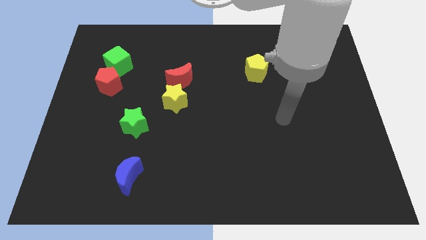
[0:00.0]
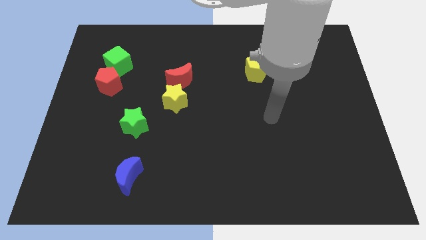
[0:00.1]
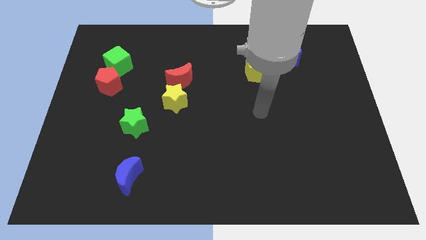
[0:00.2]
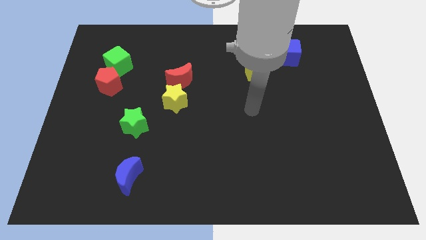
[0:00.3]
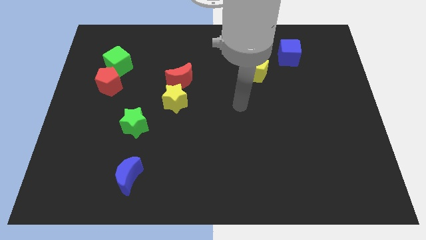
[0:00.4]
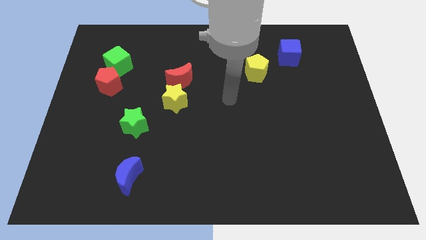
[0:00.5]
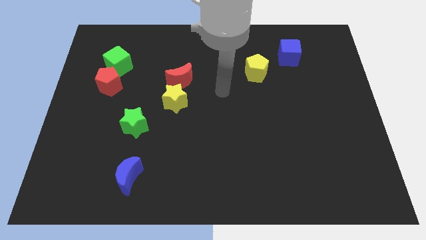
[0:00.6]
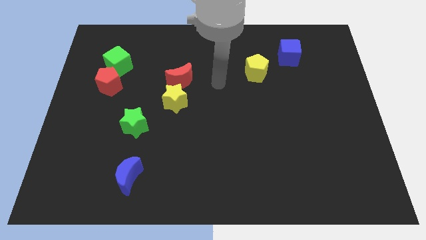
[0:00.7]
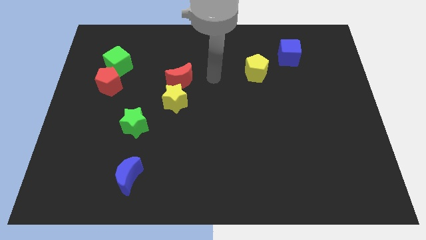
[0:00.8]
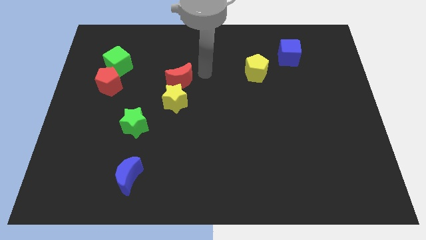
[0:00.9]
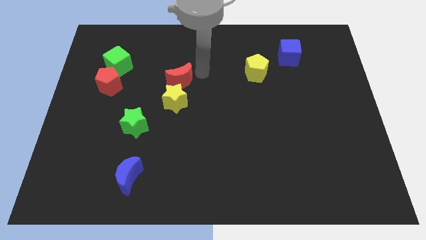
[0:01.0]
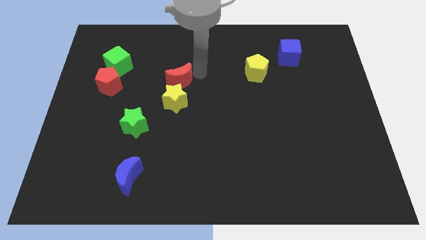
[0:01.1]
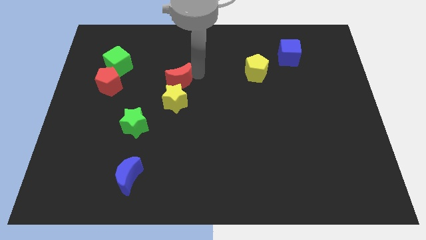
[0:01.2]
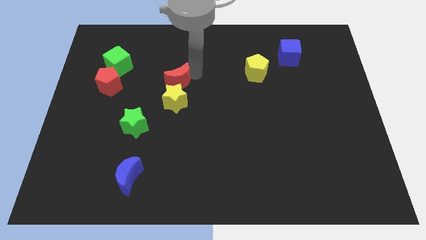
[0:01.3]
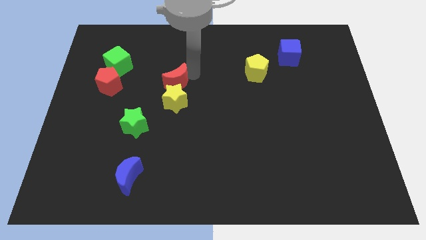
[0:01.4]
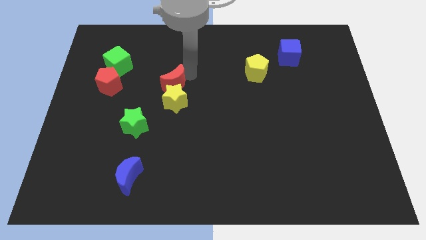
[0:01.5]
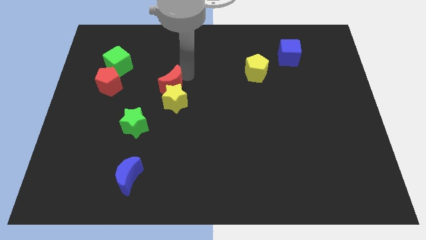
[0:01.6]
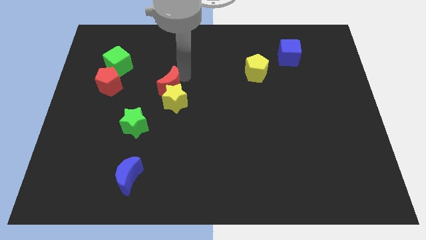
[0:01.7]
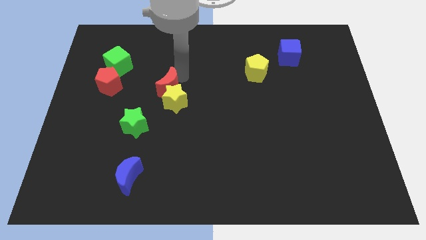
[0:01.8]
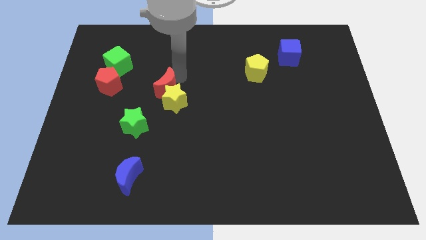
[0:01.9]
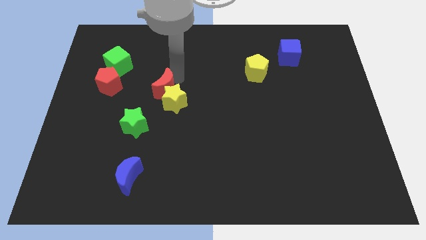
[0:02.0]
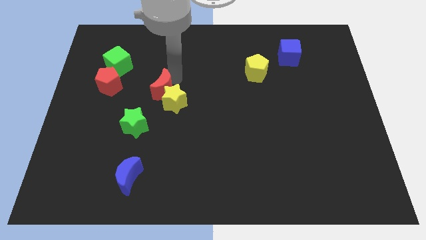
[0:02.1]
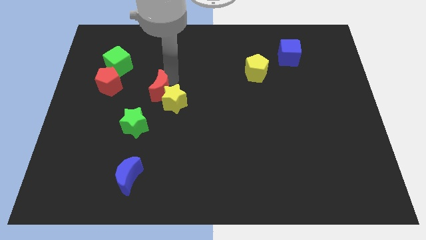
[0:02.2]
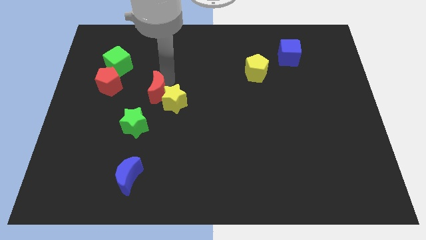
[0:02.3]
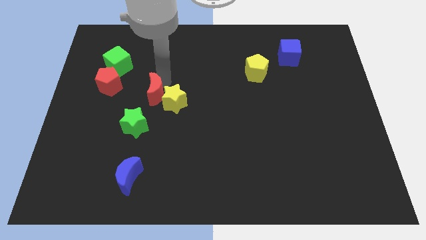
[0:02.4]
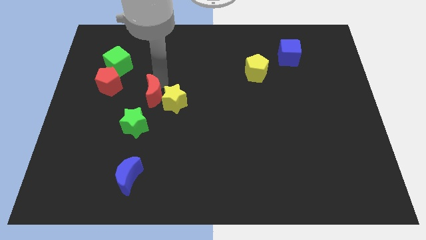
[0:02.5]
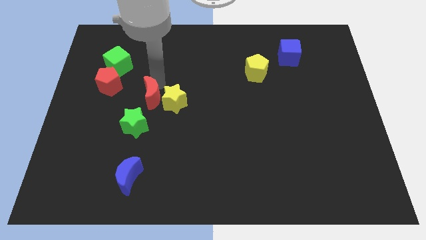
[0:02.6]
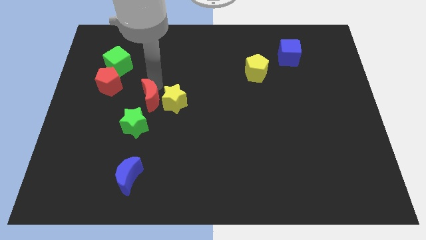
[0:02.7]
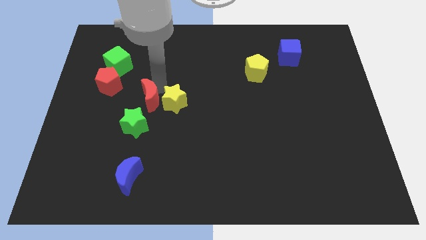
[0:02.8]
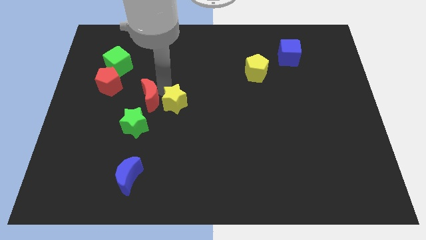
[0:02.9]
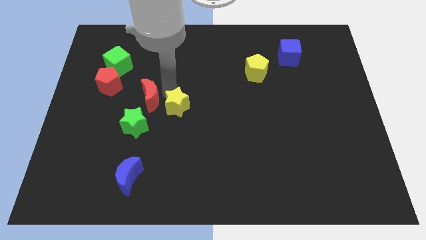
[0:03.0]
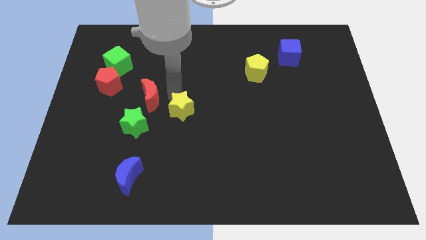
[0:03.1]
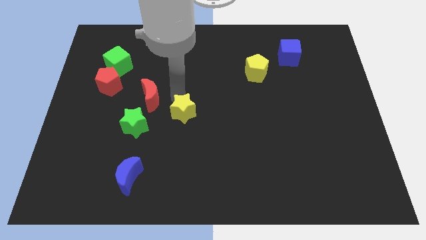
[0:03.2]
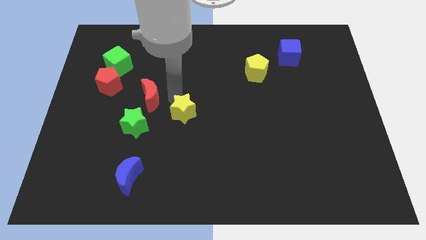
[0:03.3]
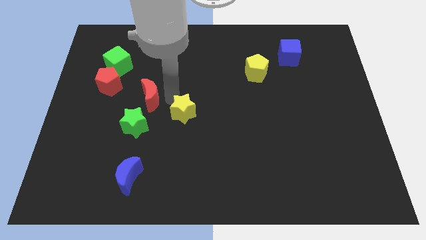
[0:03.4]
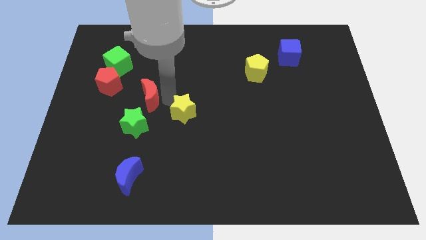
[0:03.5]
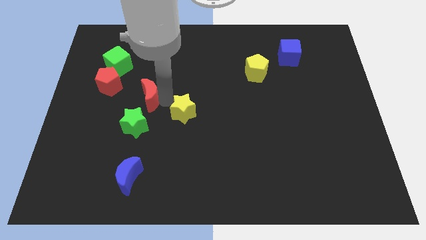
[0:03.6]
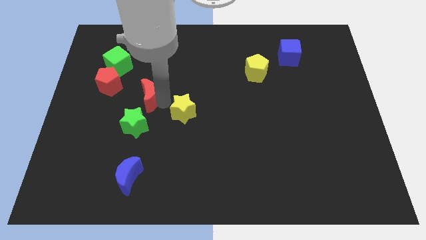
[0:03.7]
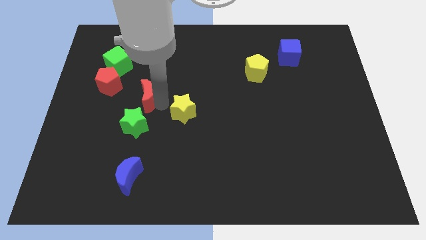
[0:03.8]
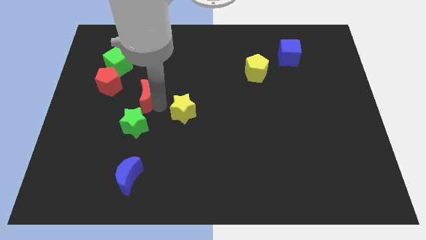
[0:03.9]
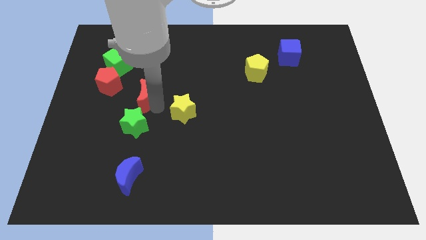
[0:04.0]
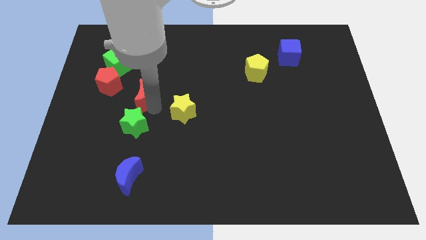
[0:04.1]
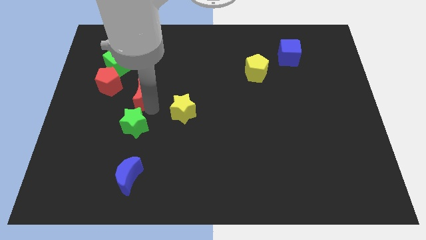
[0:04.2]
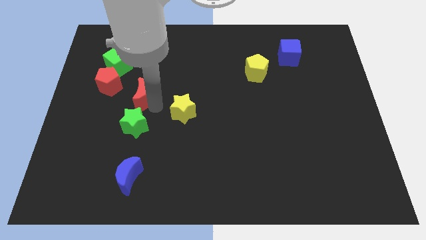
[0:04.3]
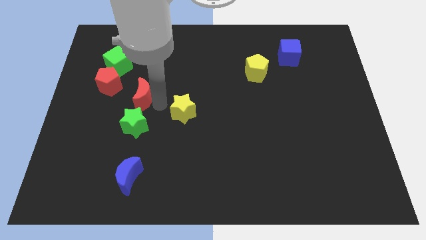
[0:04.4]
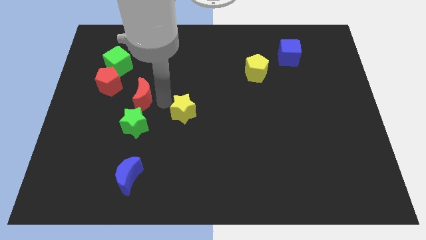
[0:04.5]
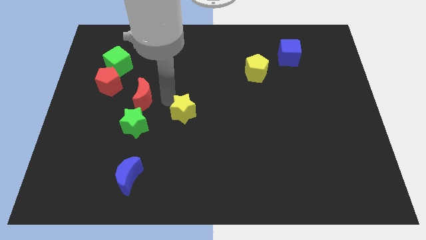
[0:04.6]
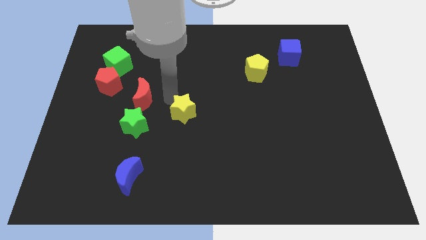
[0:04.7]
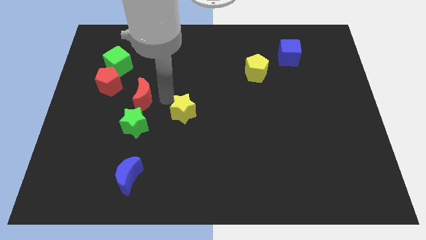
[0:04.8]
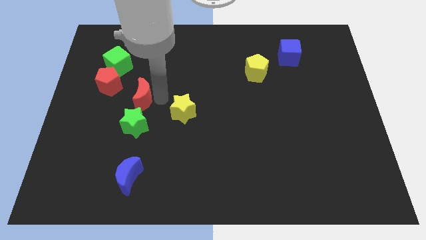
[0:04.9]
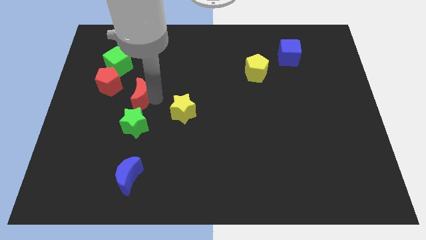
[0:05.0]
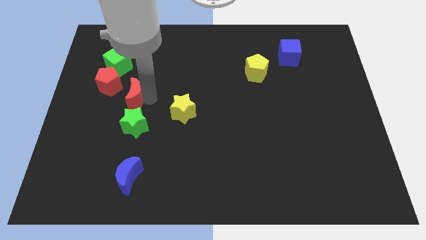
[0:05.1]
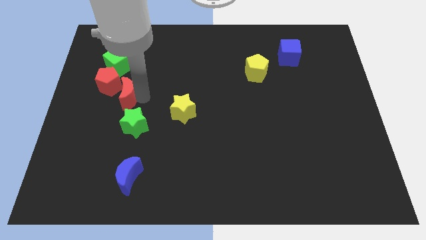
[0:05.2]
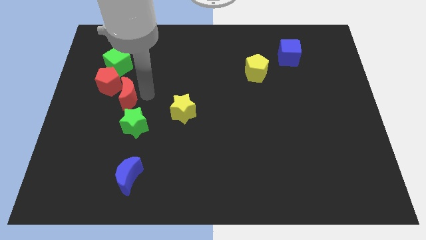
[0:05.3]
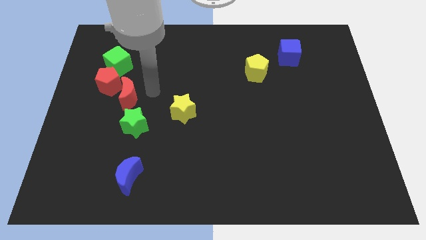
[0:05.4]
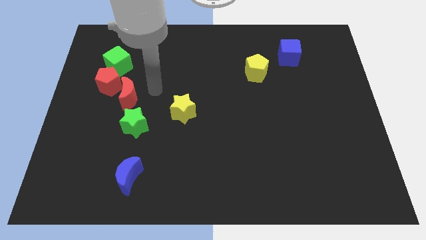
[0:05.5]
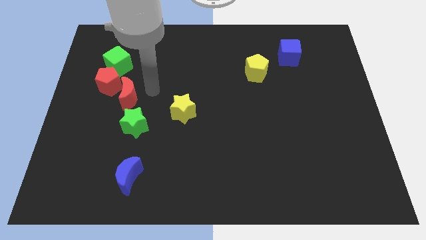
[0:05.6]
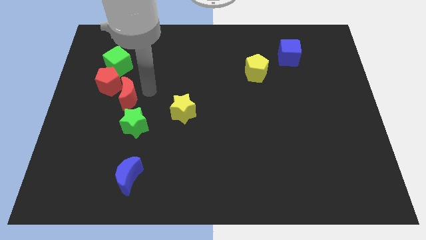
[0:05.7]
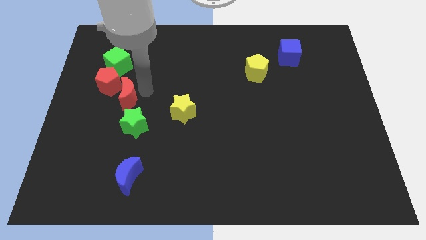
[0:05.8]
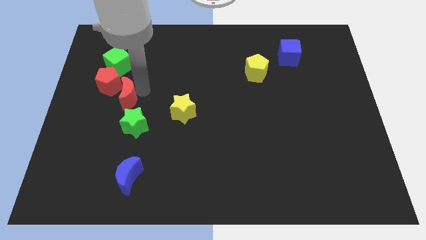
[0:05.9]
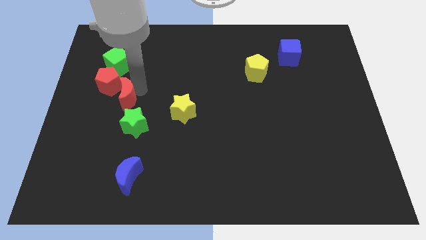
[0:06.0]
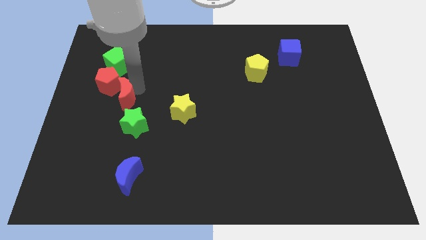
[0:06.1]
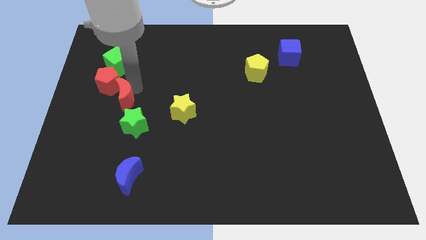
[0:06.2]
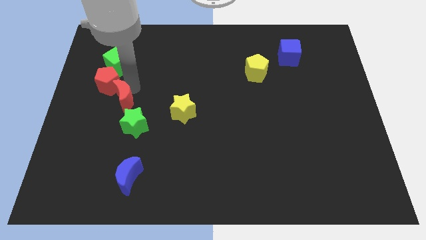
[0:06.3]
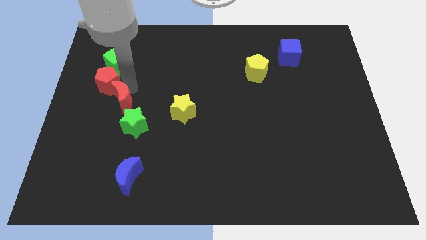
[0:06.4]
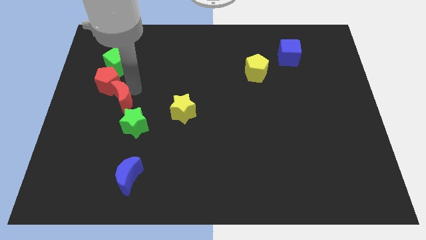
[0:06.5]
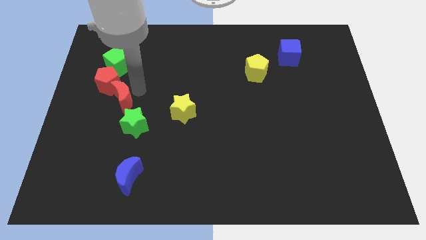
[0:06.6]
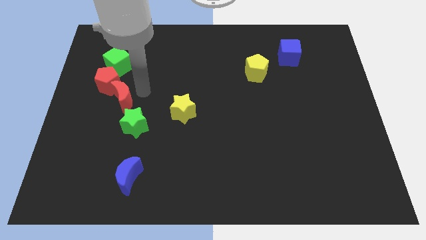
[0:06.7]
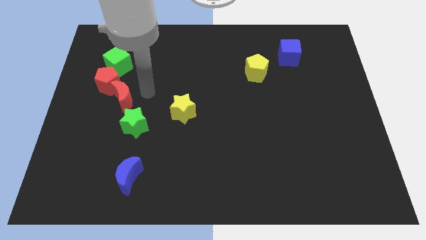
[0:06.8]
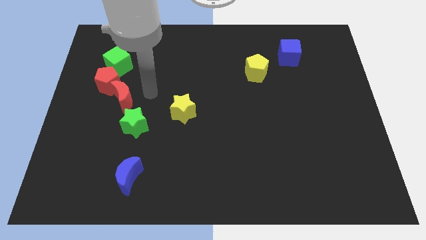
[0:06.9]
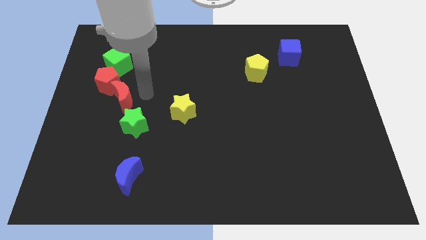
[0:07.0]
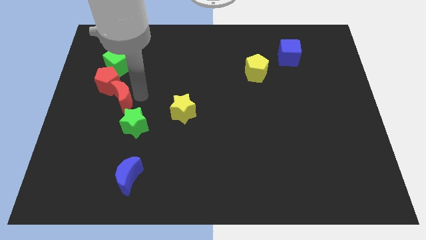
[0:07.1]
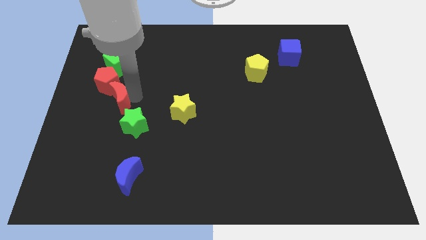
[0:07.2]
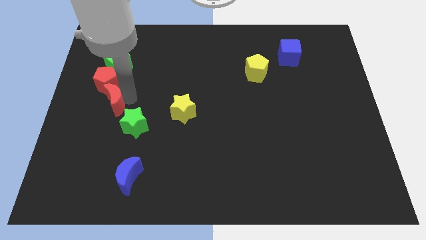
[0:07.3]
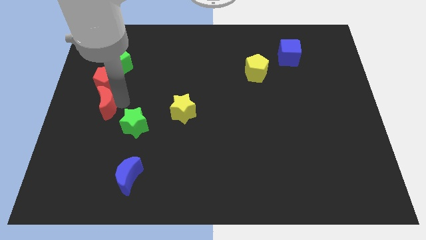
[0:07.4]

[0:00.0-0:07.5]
slide the red moon to the left side
